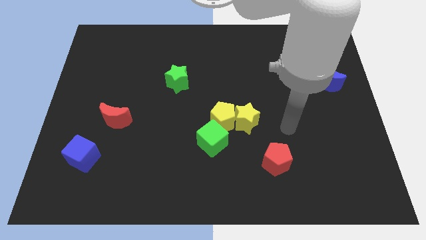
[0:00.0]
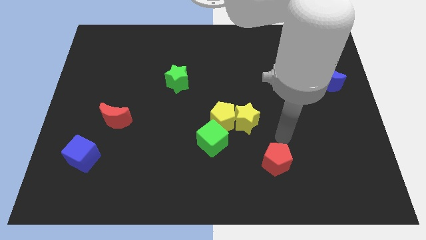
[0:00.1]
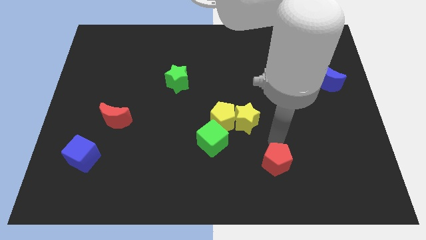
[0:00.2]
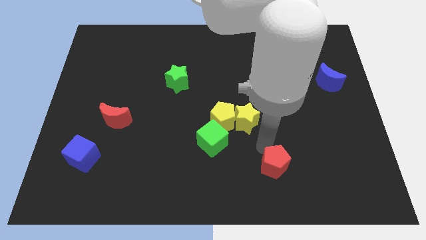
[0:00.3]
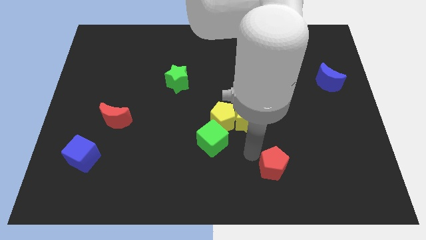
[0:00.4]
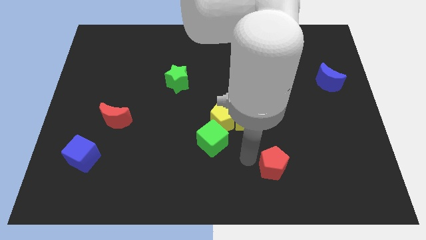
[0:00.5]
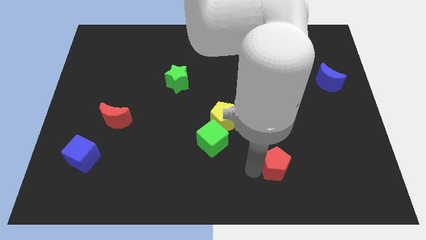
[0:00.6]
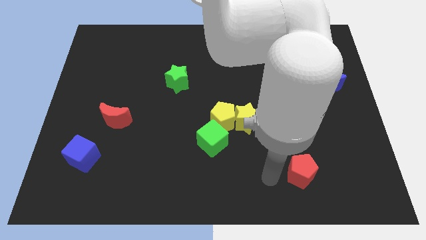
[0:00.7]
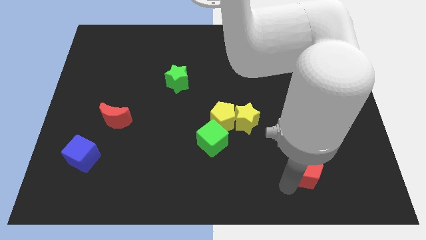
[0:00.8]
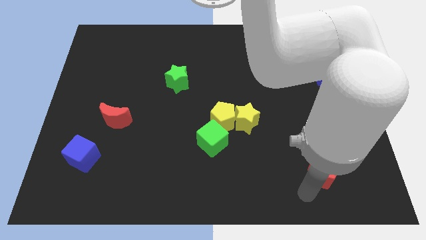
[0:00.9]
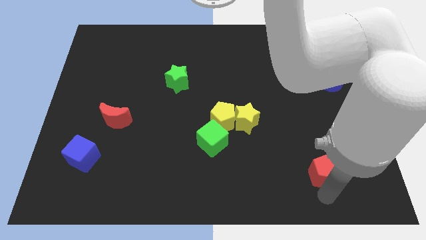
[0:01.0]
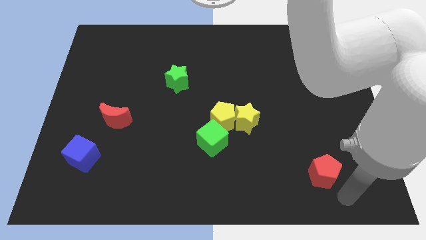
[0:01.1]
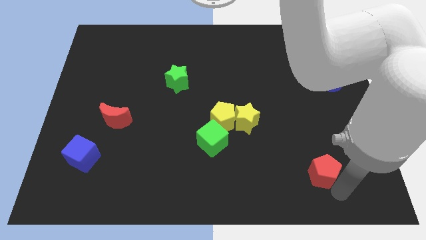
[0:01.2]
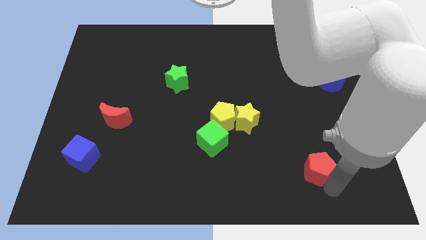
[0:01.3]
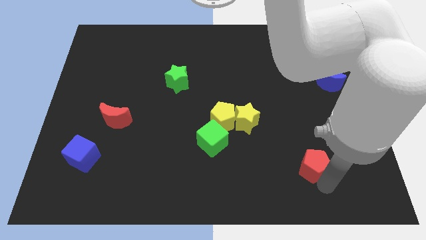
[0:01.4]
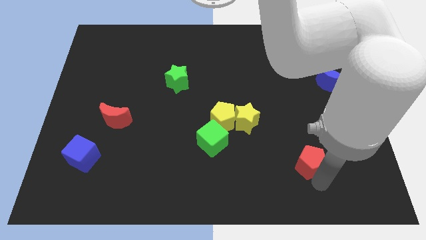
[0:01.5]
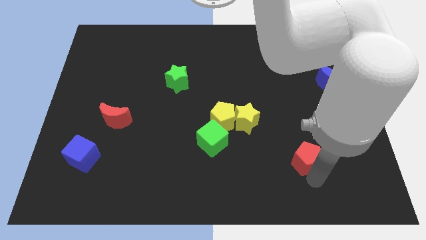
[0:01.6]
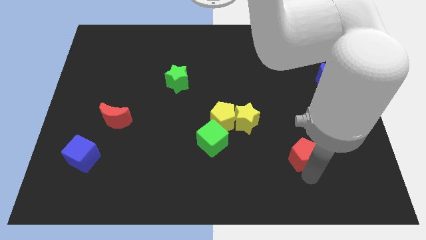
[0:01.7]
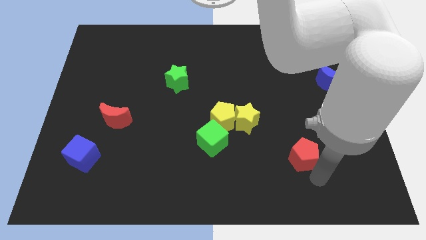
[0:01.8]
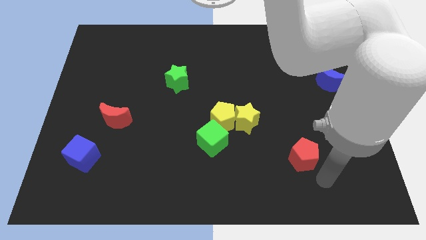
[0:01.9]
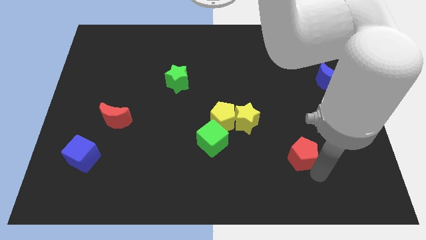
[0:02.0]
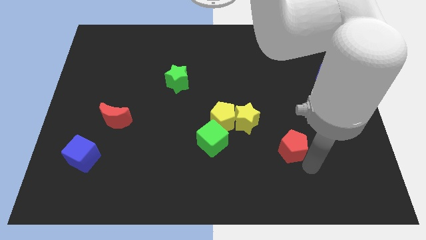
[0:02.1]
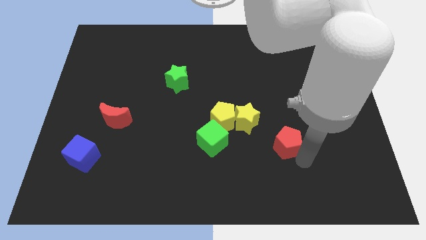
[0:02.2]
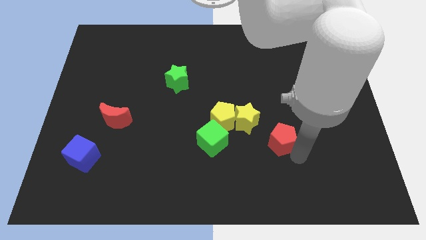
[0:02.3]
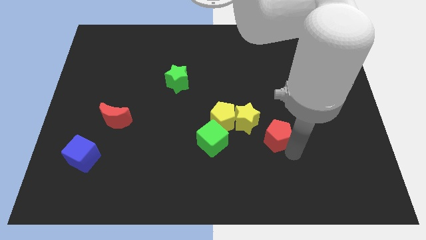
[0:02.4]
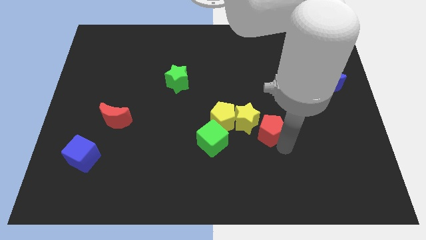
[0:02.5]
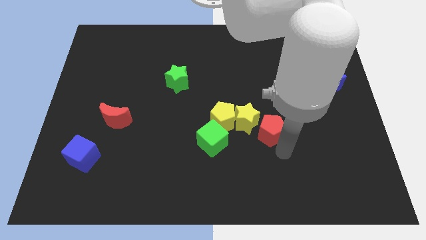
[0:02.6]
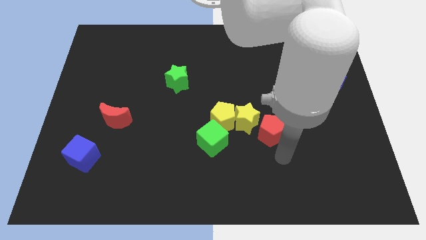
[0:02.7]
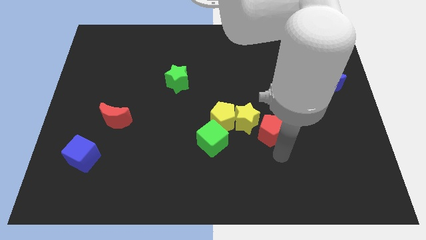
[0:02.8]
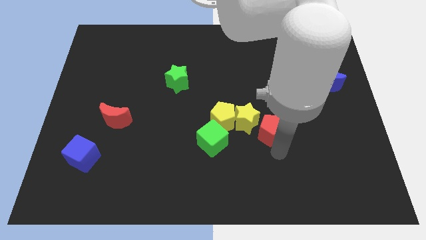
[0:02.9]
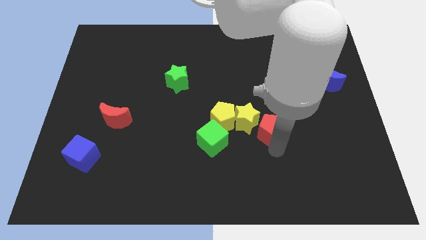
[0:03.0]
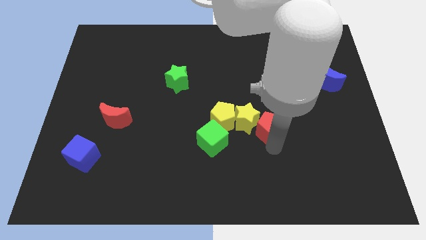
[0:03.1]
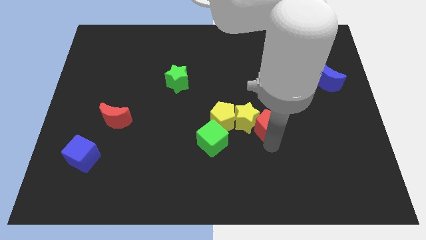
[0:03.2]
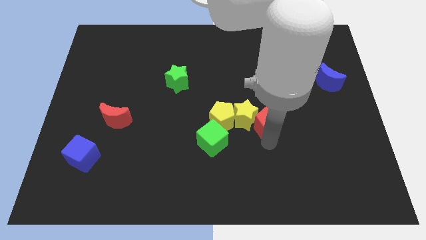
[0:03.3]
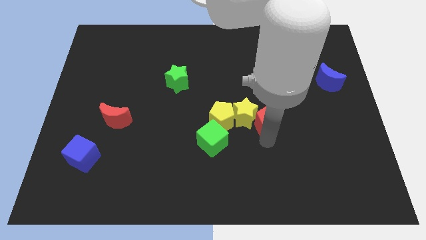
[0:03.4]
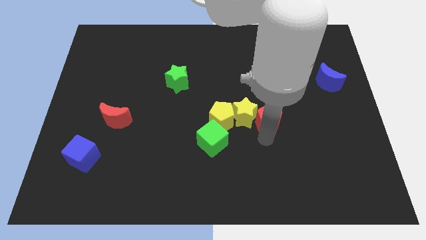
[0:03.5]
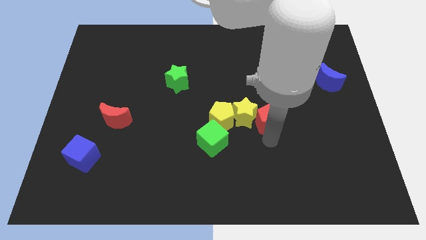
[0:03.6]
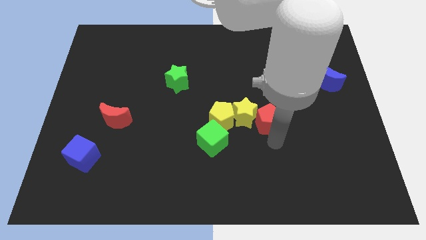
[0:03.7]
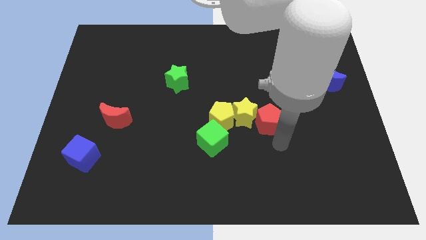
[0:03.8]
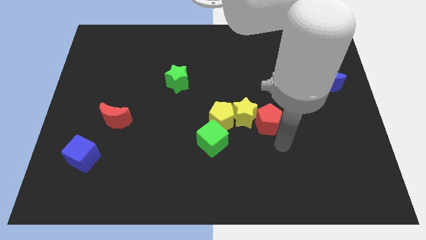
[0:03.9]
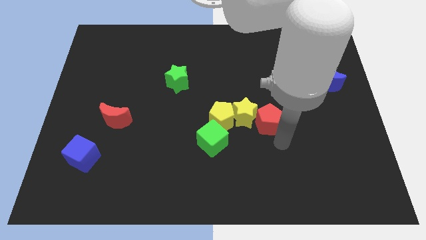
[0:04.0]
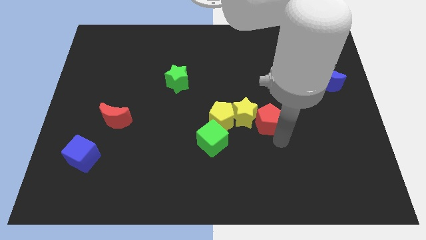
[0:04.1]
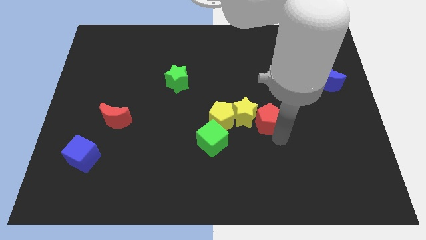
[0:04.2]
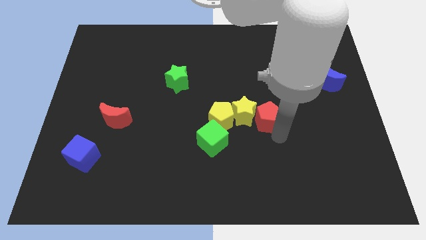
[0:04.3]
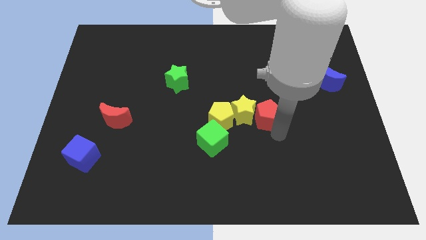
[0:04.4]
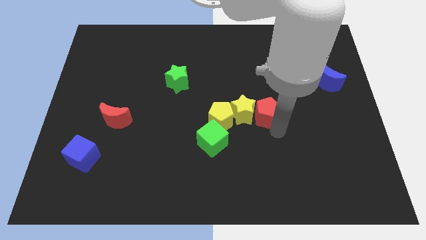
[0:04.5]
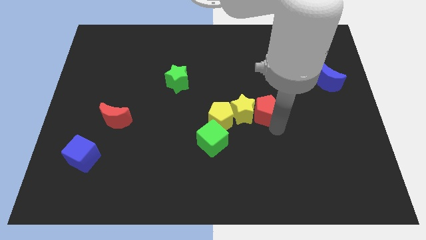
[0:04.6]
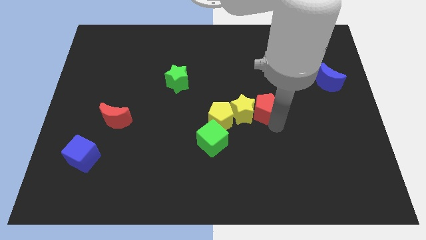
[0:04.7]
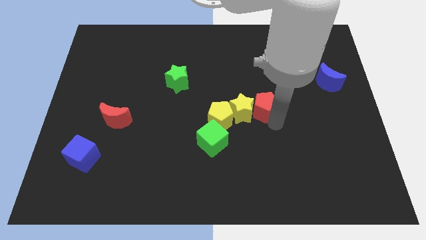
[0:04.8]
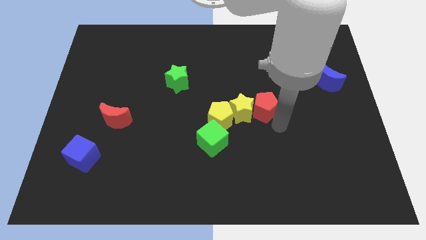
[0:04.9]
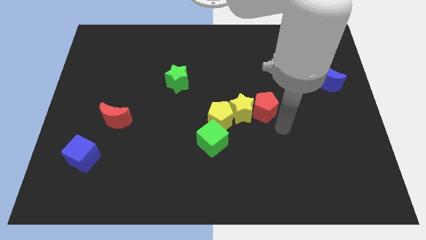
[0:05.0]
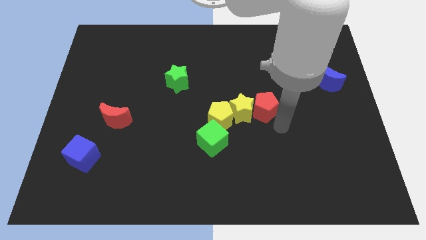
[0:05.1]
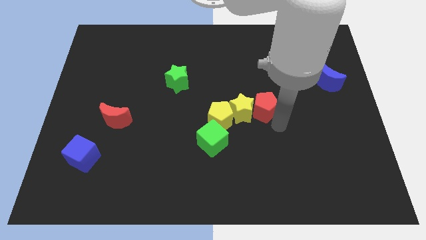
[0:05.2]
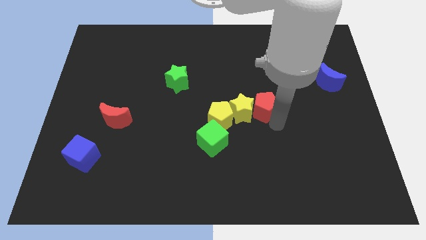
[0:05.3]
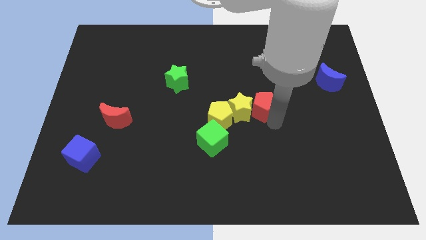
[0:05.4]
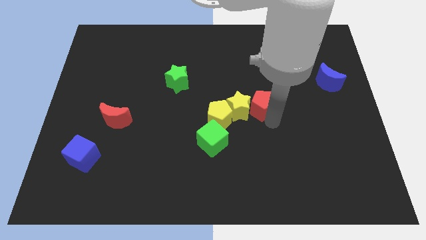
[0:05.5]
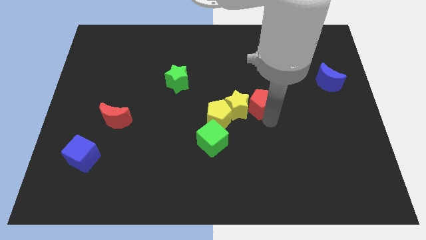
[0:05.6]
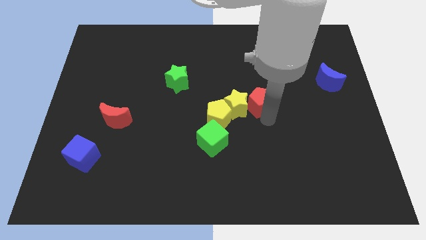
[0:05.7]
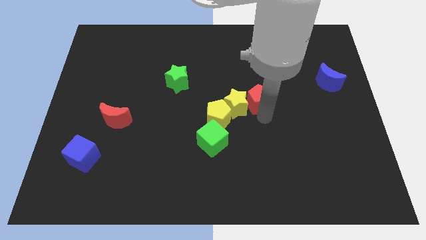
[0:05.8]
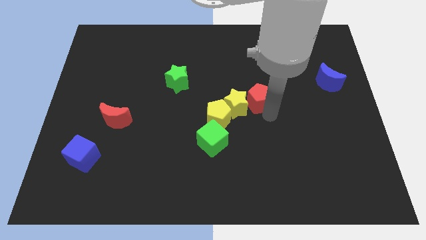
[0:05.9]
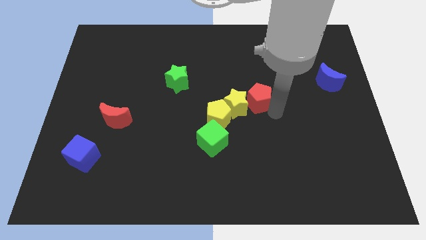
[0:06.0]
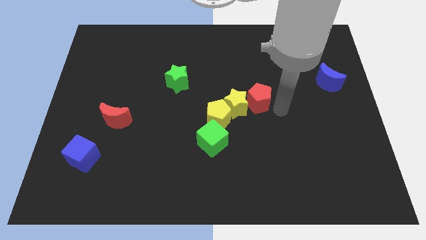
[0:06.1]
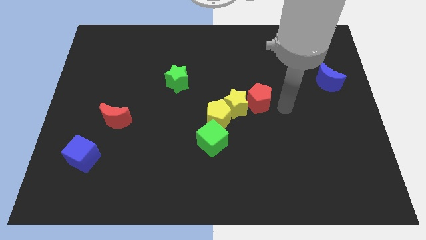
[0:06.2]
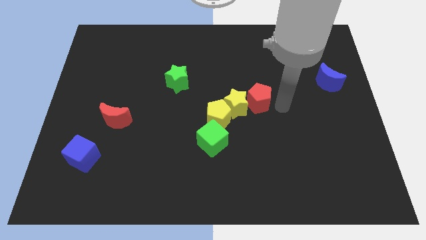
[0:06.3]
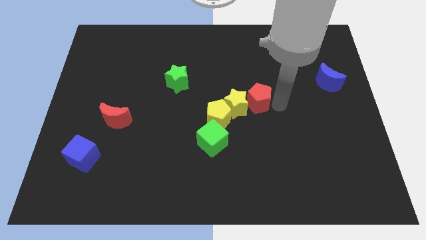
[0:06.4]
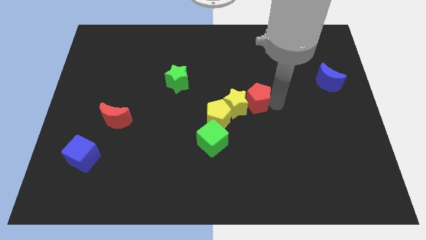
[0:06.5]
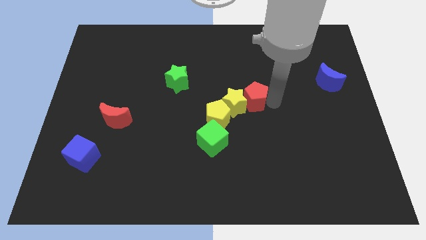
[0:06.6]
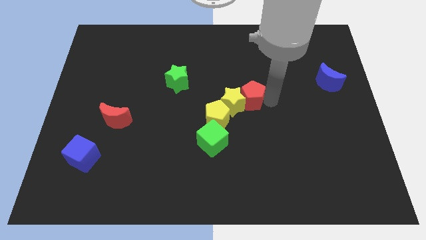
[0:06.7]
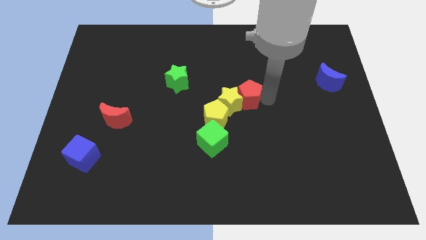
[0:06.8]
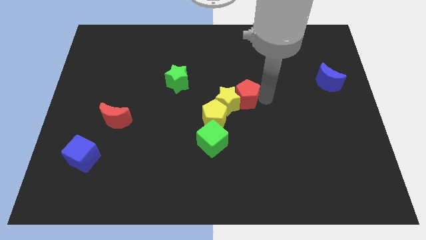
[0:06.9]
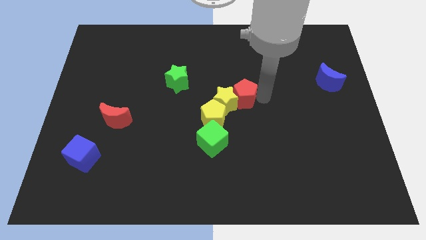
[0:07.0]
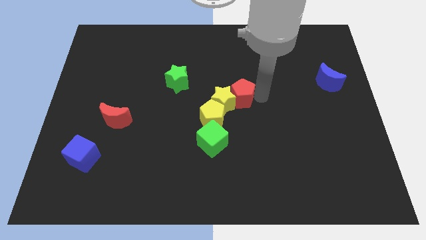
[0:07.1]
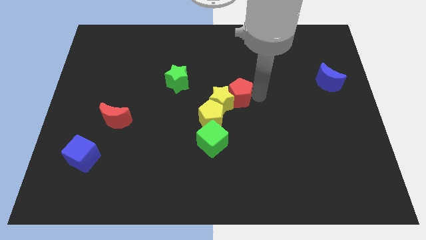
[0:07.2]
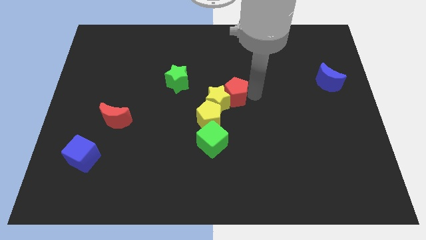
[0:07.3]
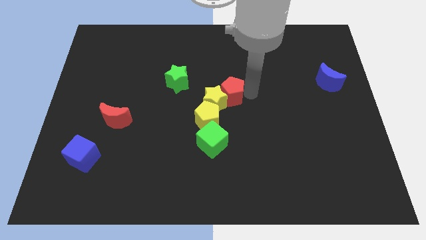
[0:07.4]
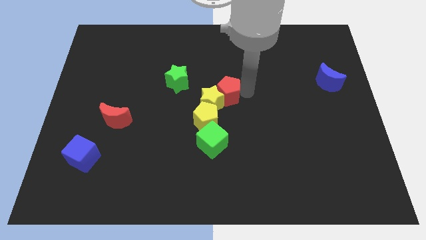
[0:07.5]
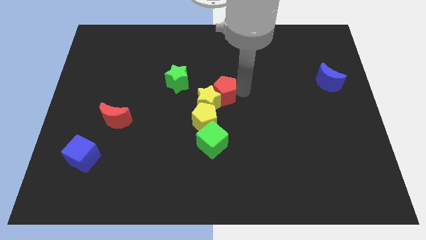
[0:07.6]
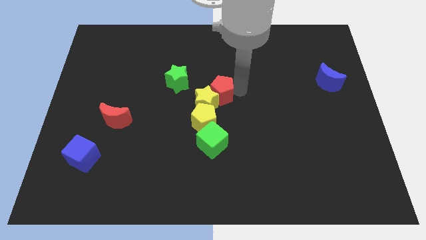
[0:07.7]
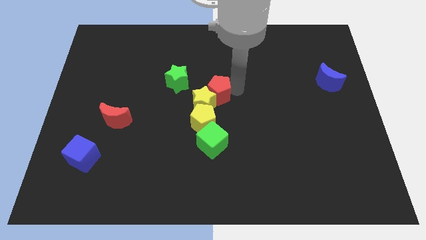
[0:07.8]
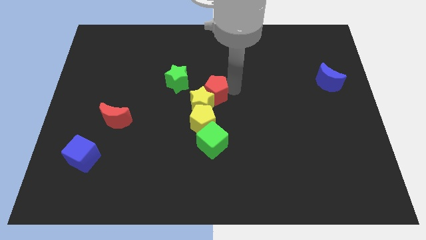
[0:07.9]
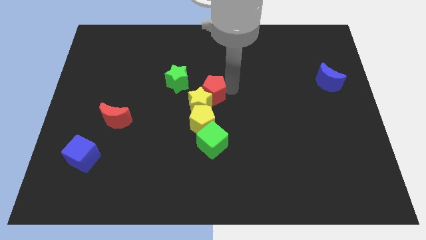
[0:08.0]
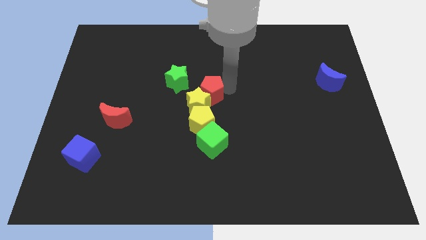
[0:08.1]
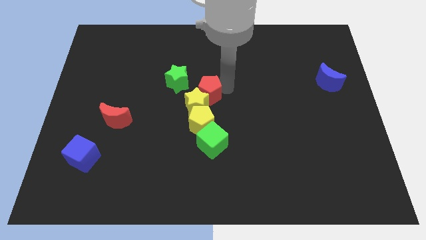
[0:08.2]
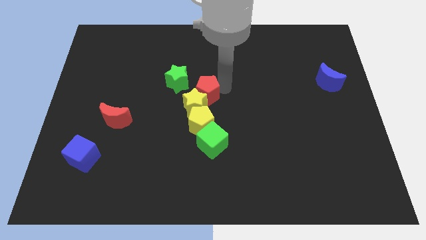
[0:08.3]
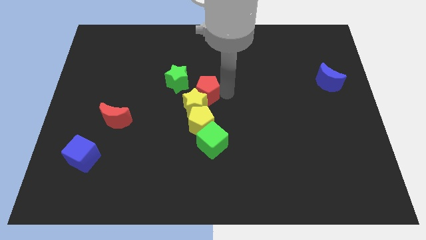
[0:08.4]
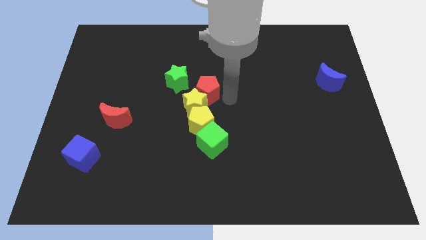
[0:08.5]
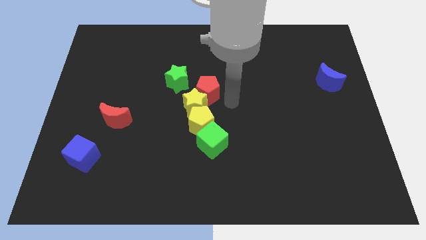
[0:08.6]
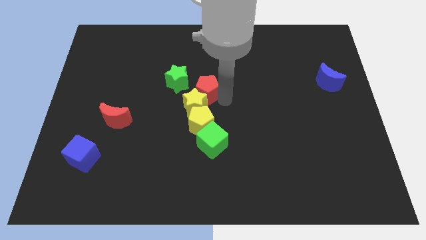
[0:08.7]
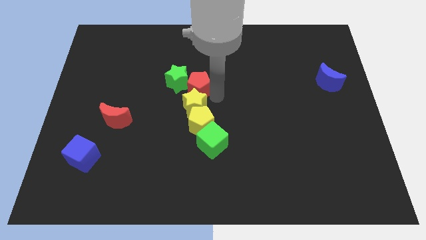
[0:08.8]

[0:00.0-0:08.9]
push the red pentagon to the green star
